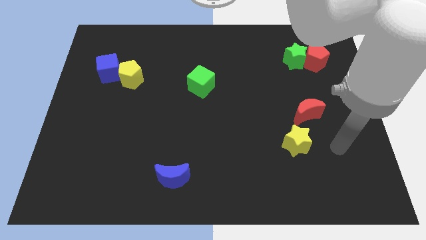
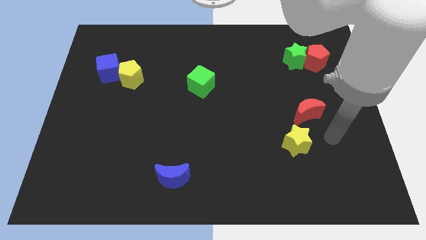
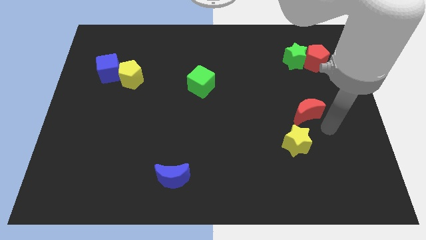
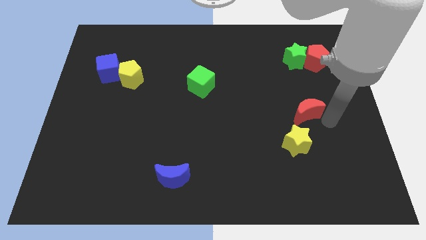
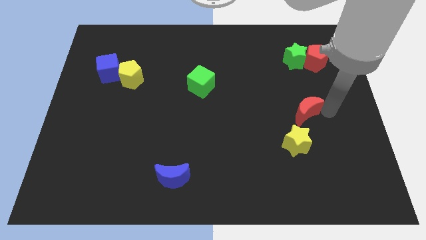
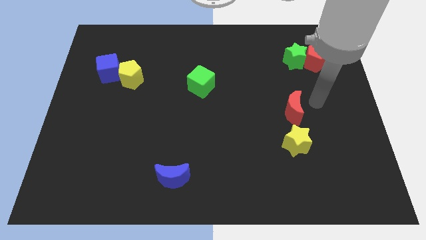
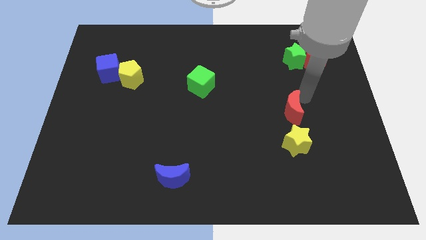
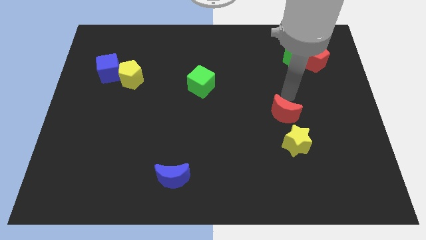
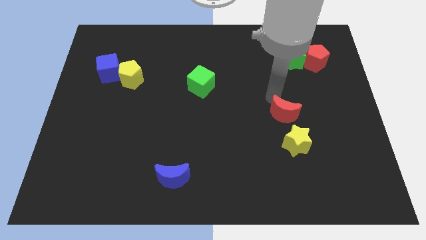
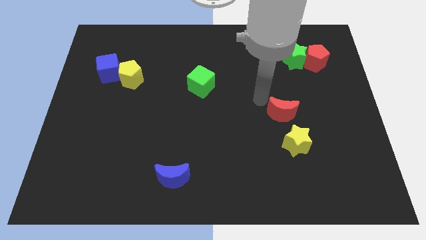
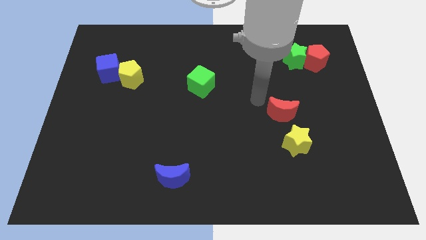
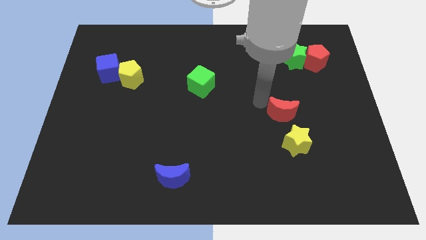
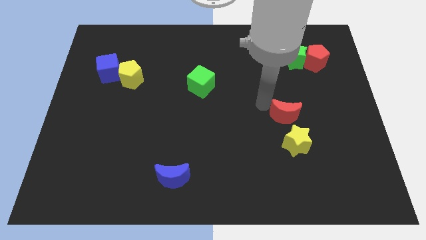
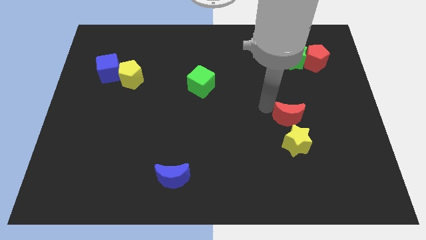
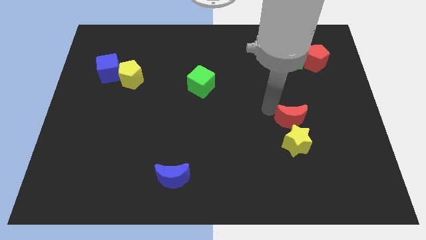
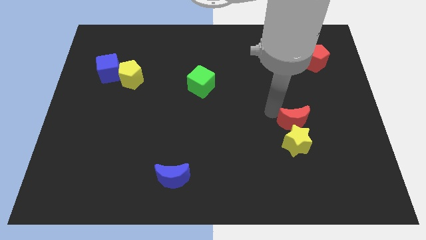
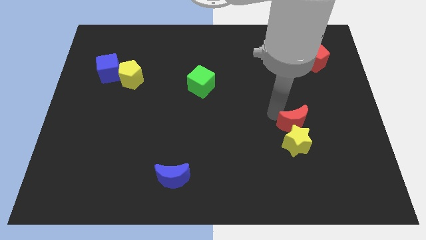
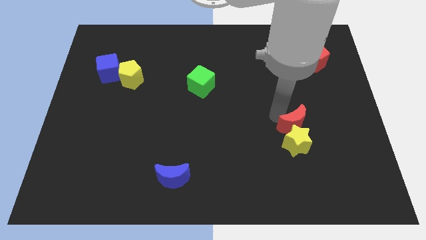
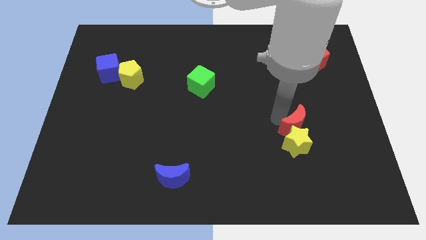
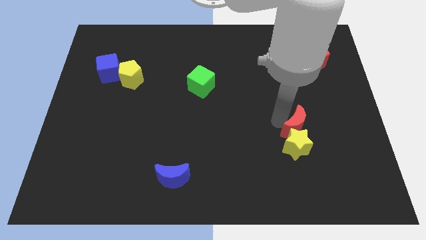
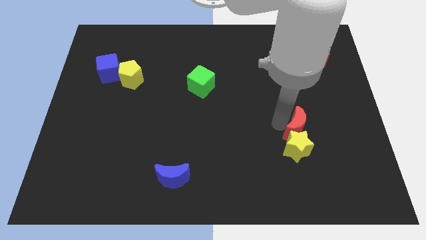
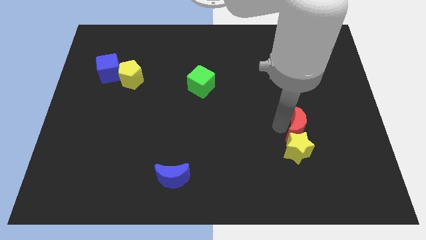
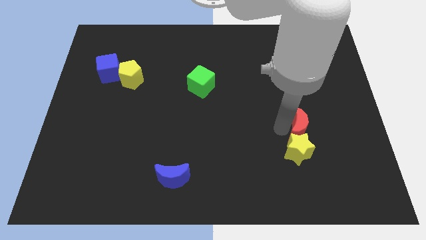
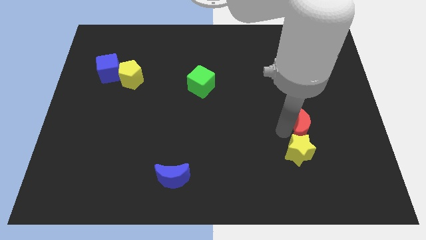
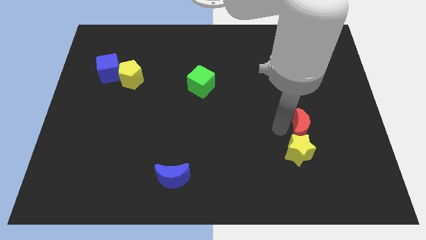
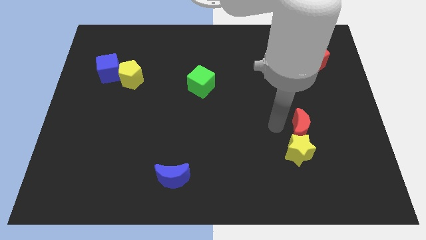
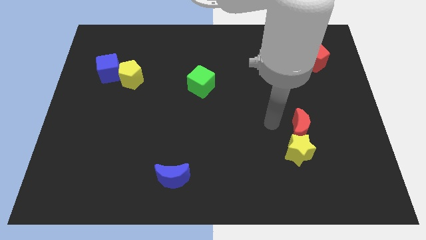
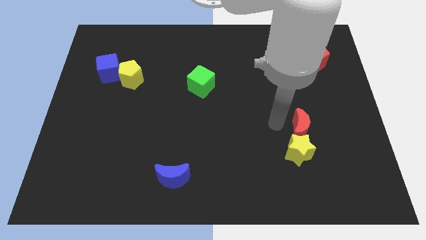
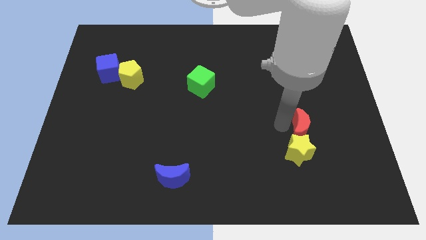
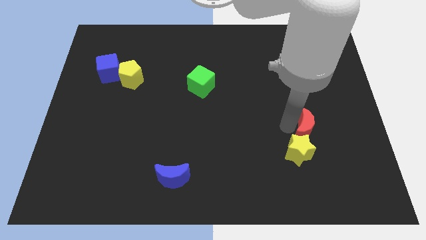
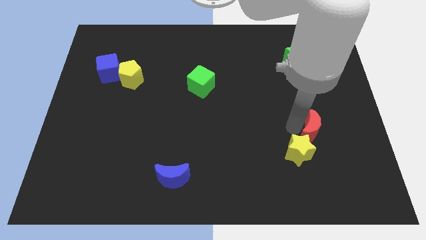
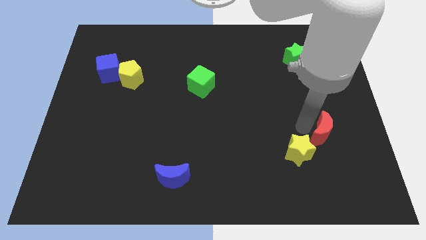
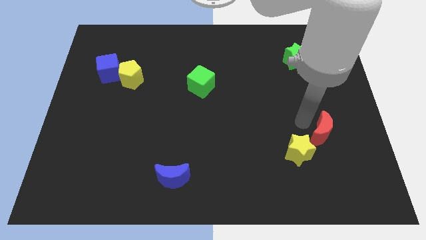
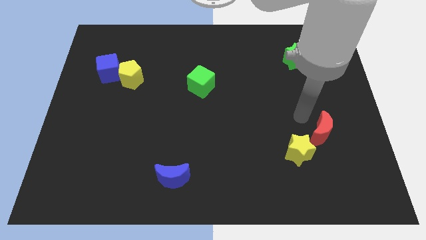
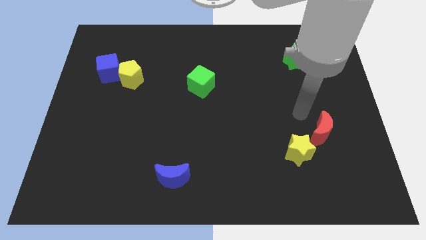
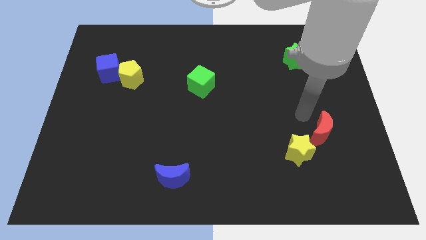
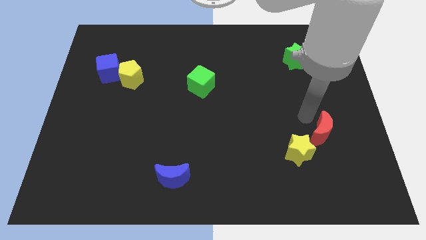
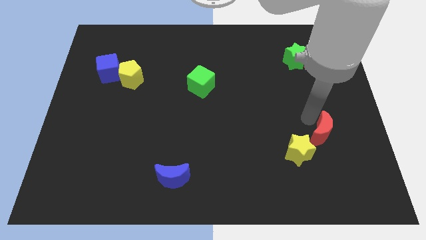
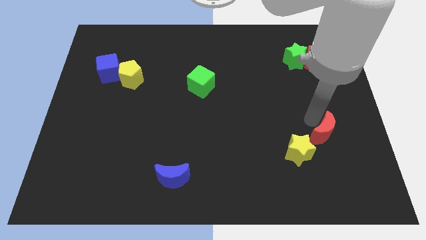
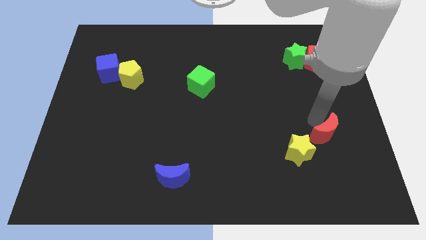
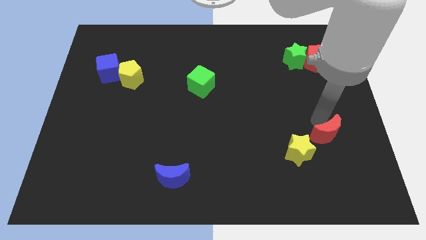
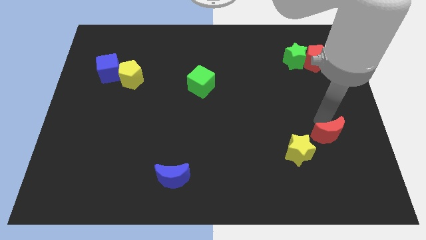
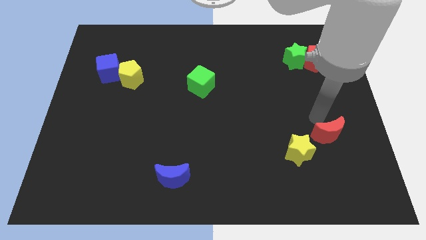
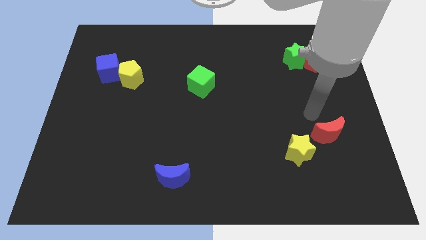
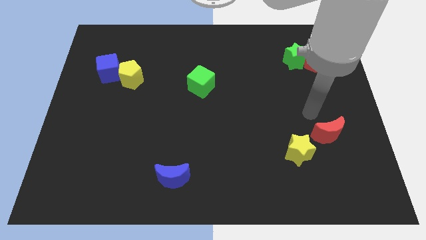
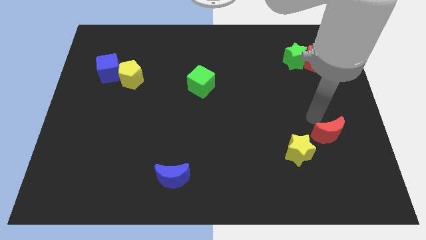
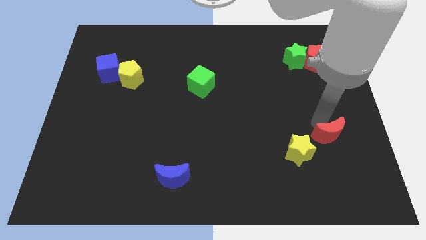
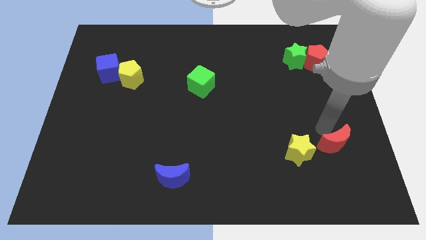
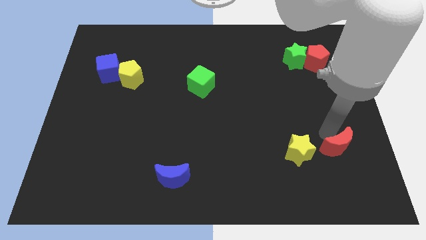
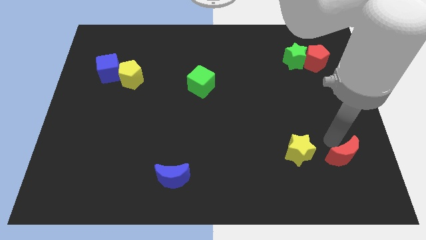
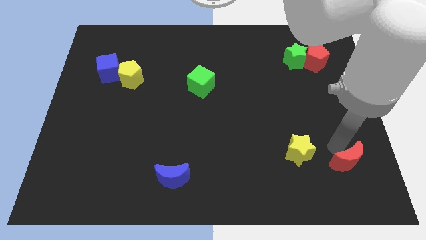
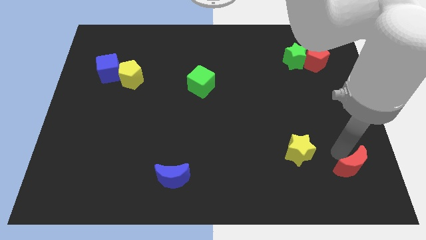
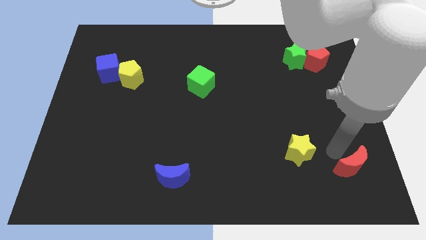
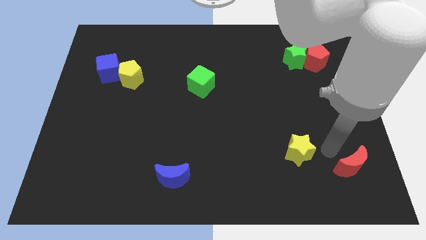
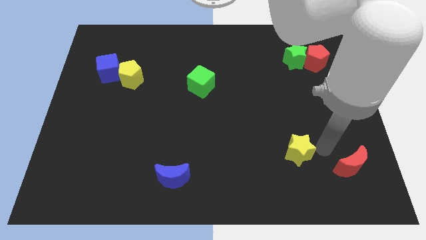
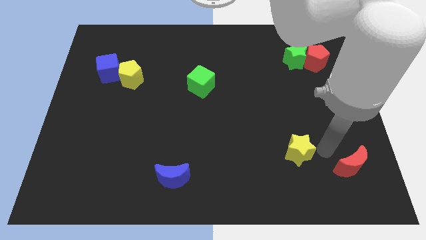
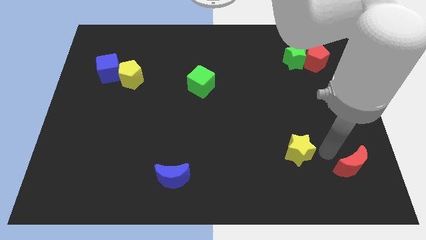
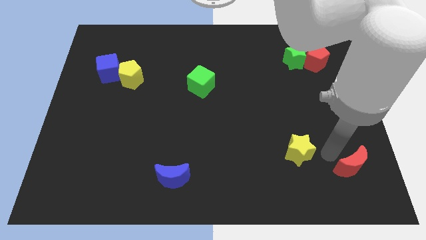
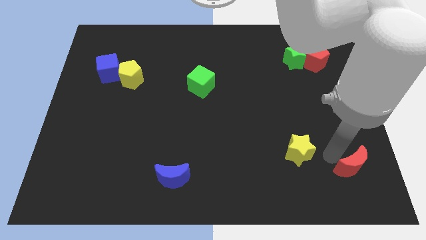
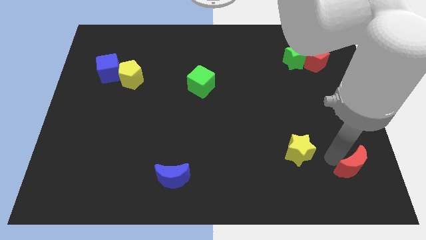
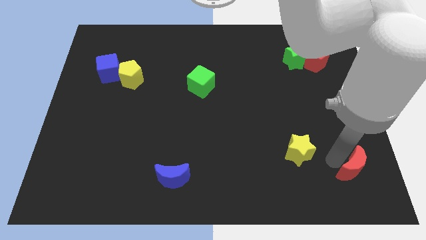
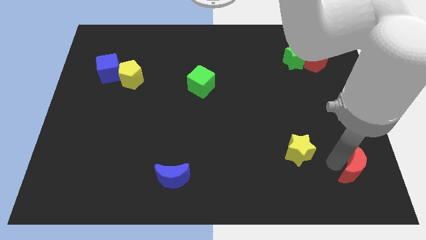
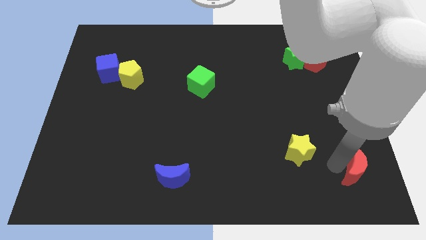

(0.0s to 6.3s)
push the red moon to the lower right corner

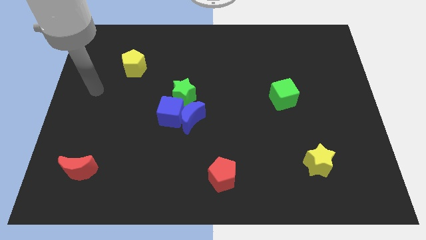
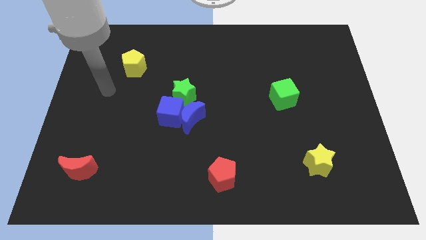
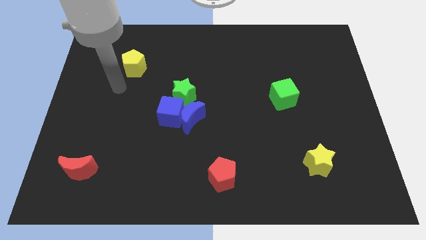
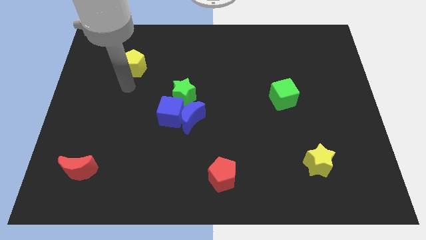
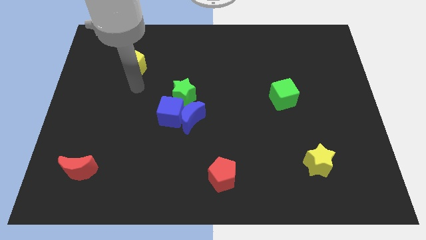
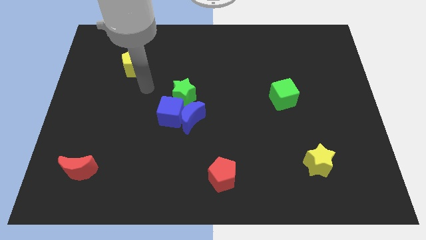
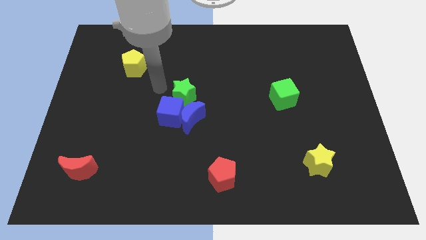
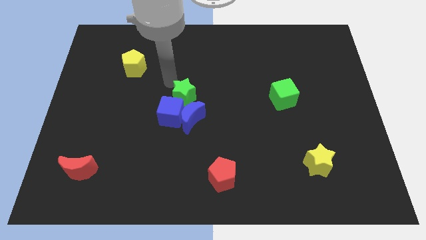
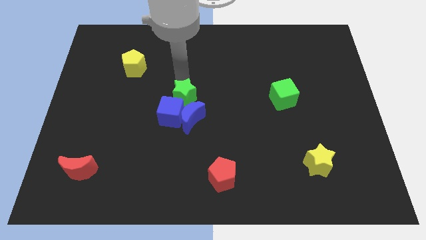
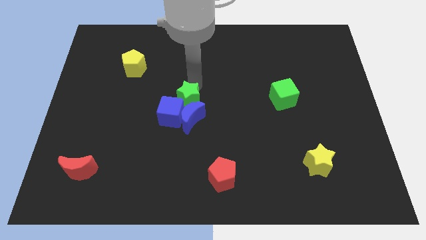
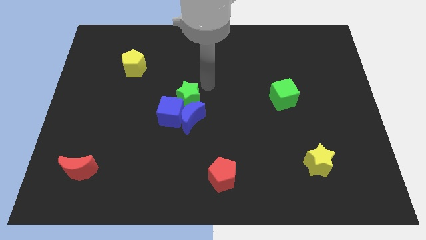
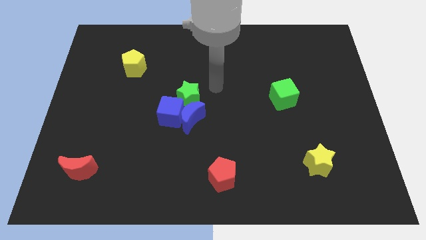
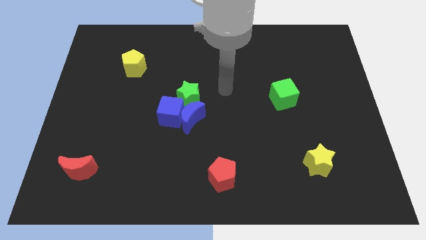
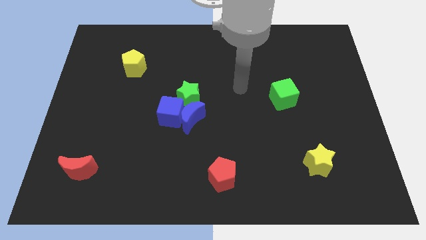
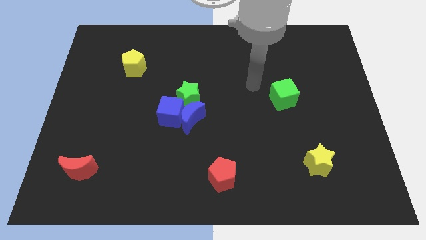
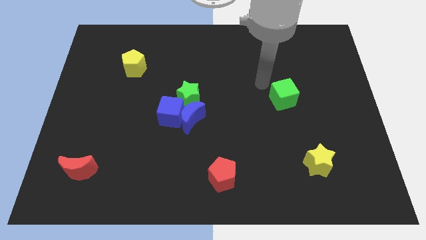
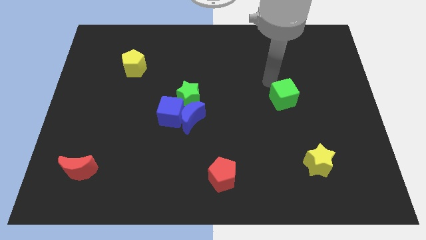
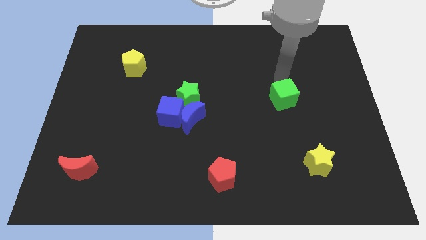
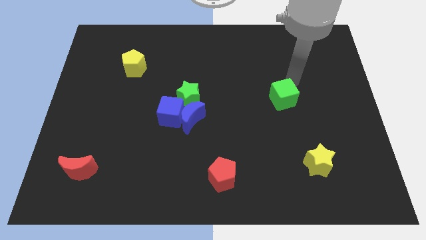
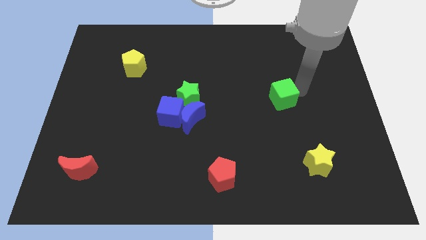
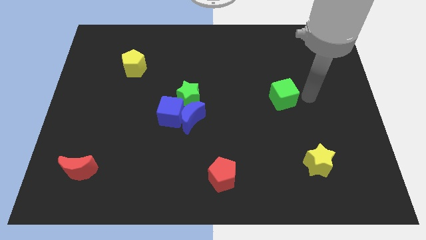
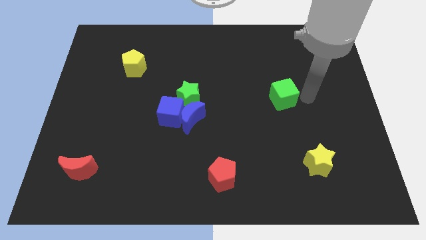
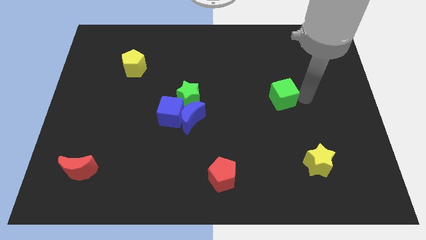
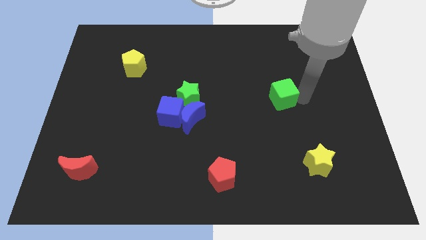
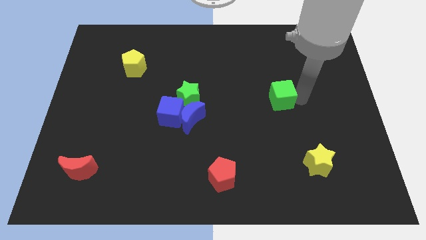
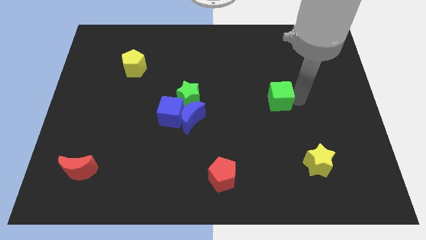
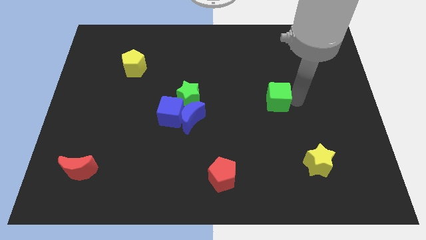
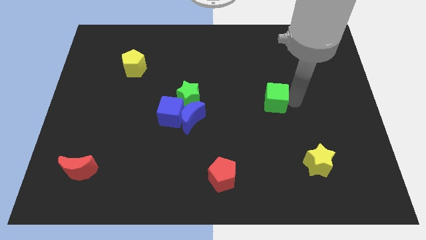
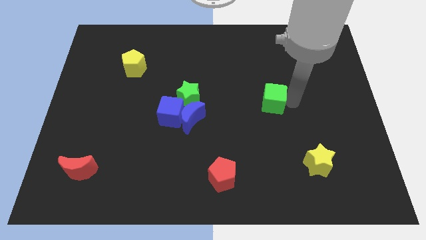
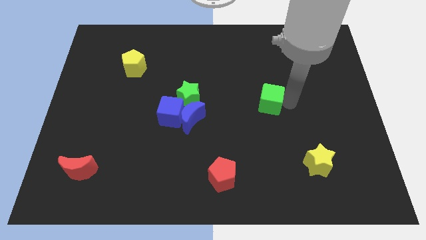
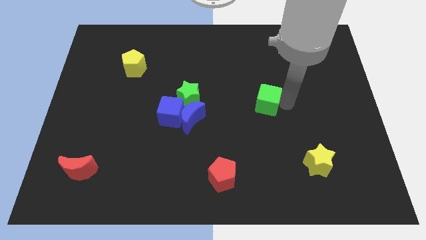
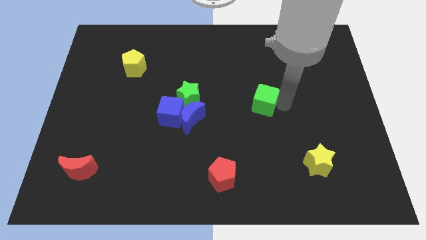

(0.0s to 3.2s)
push the green cube to the center of the board
